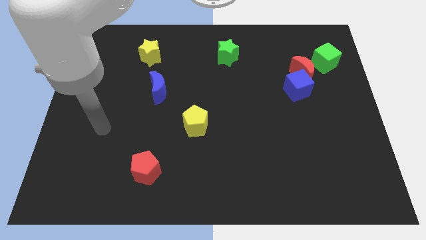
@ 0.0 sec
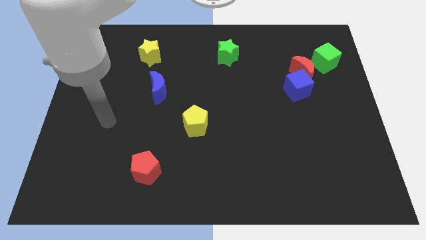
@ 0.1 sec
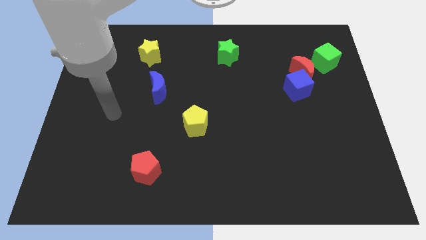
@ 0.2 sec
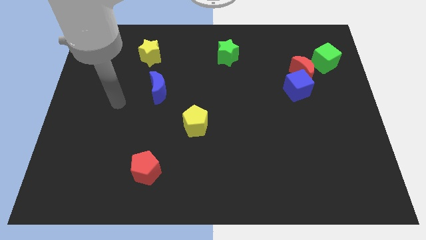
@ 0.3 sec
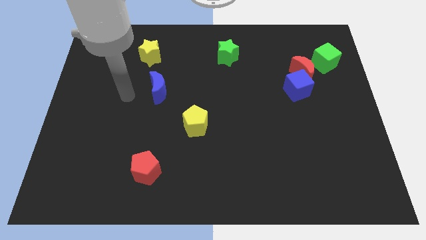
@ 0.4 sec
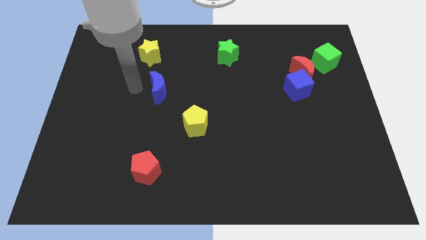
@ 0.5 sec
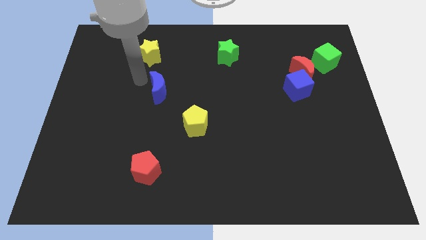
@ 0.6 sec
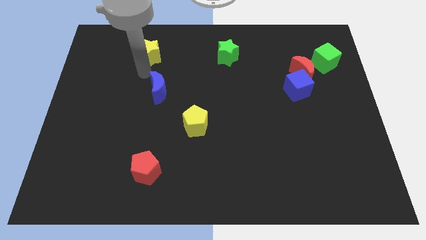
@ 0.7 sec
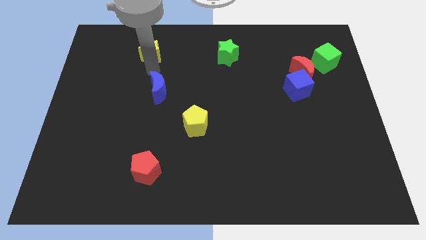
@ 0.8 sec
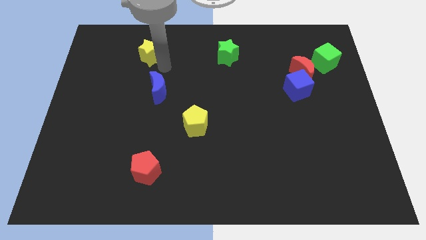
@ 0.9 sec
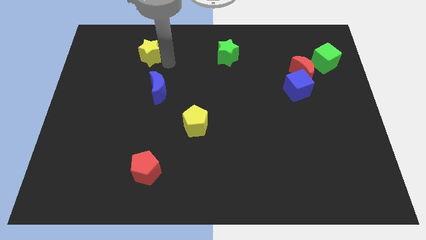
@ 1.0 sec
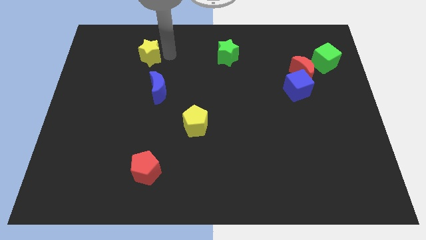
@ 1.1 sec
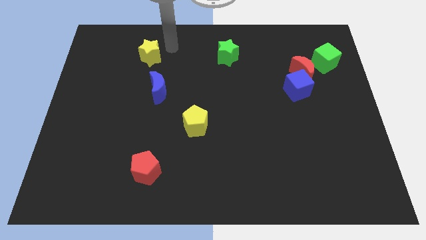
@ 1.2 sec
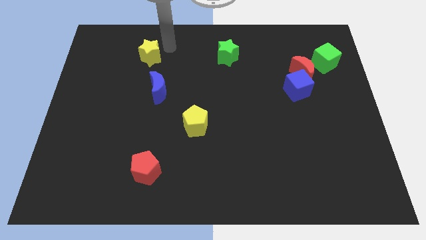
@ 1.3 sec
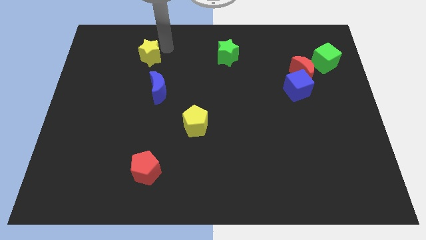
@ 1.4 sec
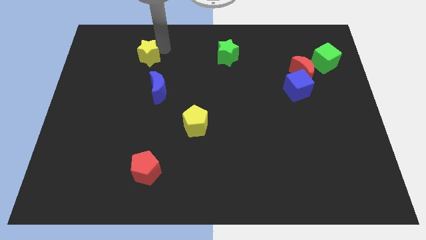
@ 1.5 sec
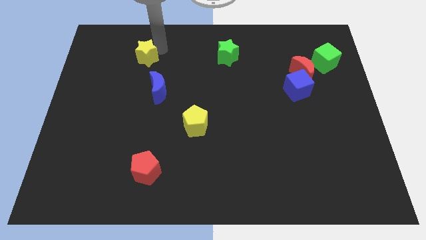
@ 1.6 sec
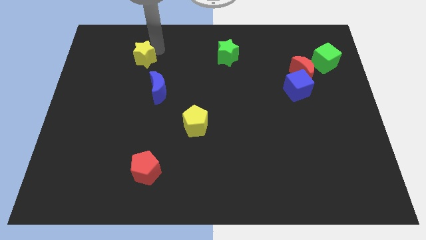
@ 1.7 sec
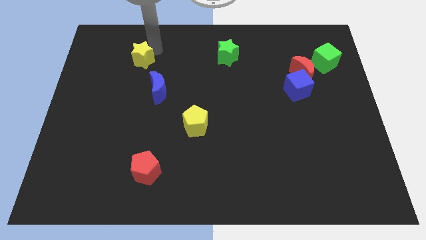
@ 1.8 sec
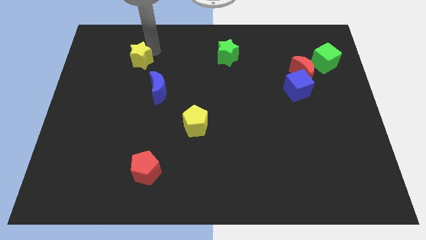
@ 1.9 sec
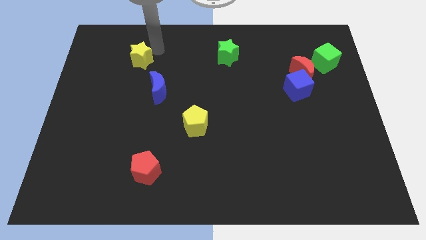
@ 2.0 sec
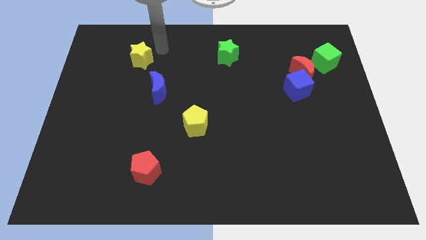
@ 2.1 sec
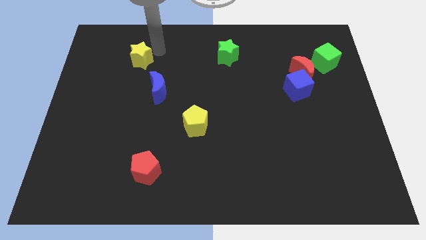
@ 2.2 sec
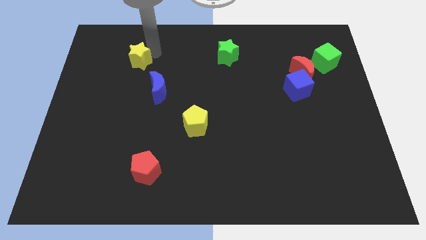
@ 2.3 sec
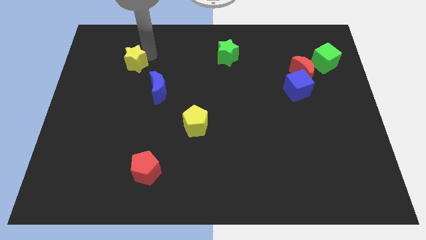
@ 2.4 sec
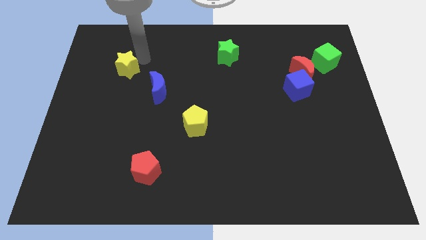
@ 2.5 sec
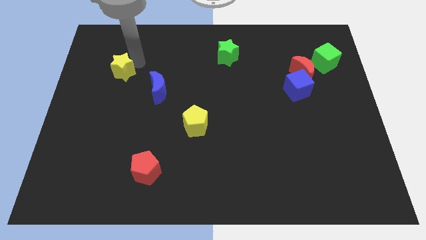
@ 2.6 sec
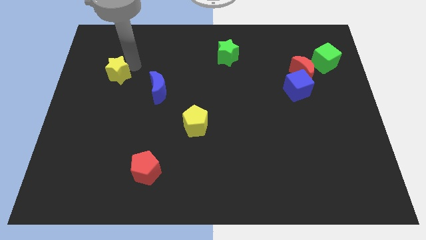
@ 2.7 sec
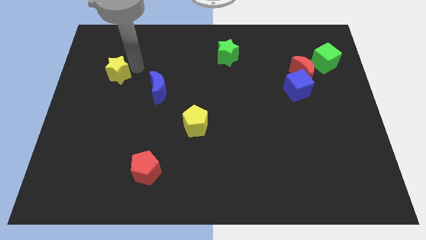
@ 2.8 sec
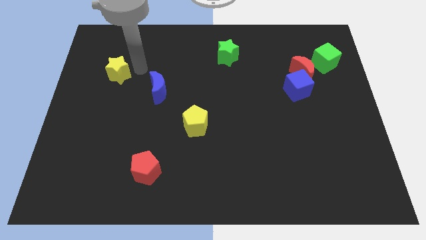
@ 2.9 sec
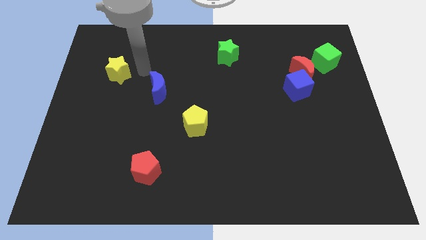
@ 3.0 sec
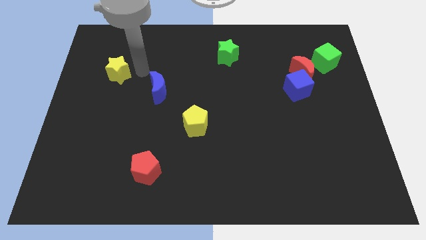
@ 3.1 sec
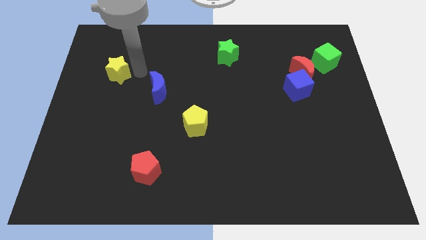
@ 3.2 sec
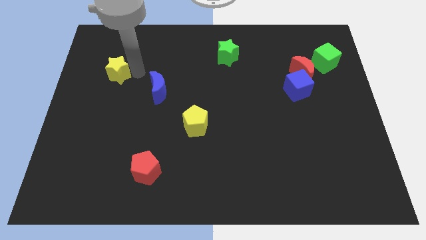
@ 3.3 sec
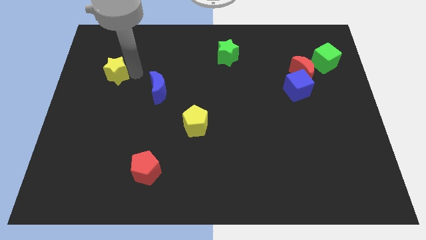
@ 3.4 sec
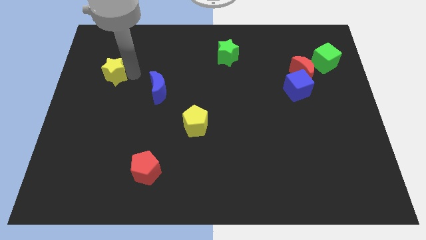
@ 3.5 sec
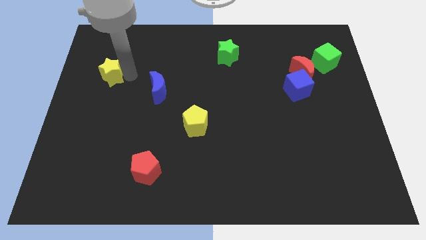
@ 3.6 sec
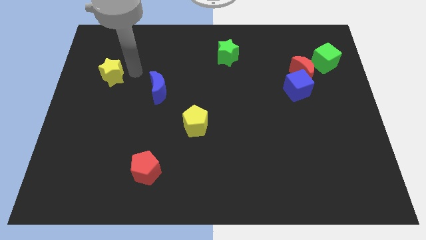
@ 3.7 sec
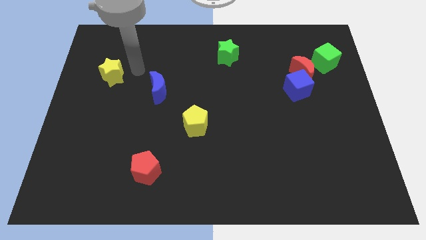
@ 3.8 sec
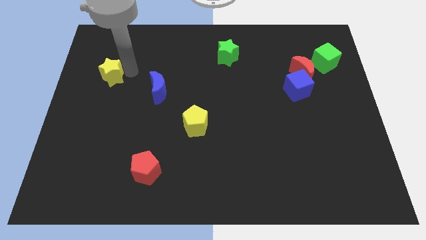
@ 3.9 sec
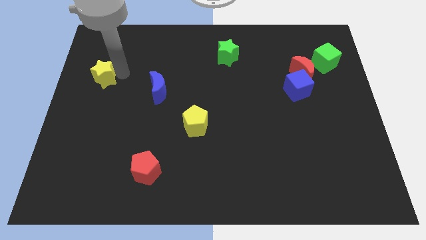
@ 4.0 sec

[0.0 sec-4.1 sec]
push the yellow star to the center left

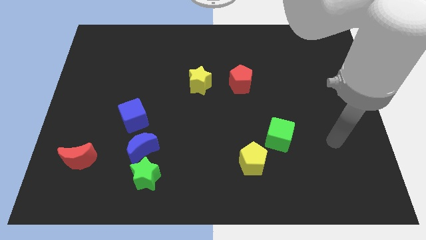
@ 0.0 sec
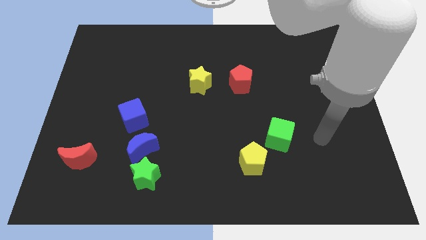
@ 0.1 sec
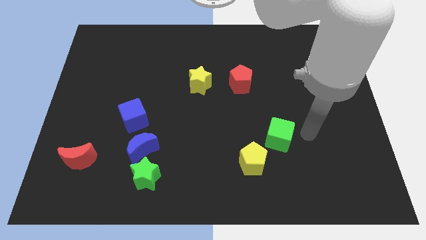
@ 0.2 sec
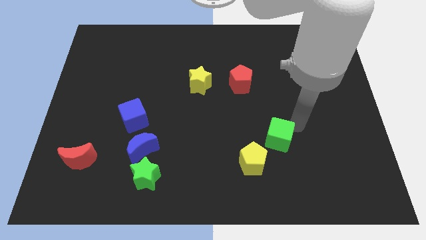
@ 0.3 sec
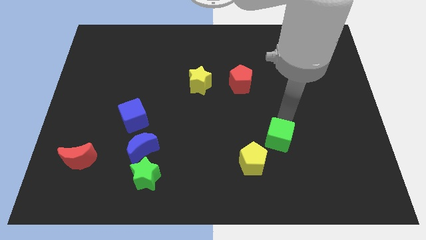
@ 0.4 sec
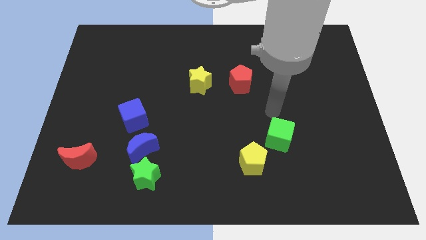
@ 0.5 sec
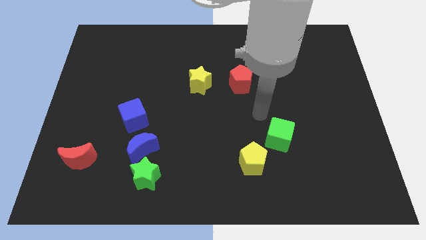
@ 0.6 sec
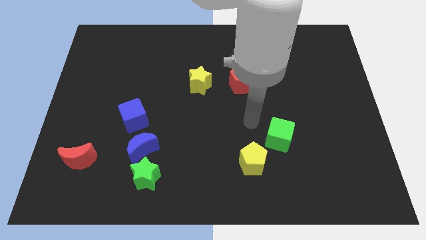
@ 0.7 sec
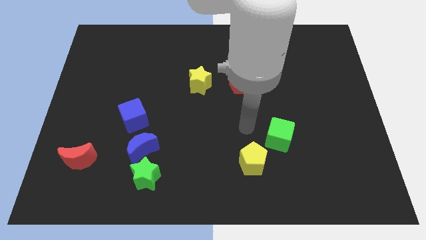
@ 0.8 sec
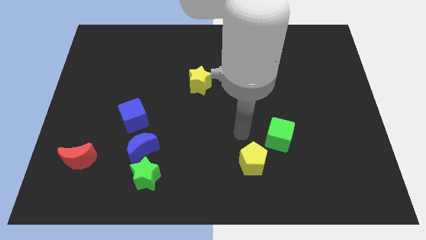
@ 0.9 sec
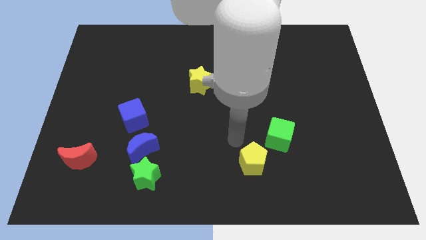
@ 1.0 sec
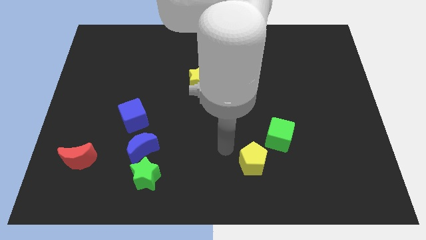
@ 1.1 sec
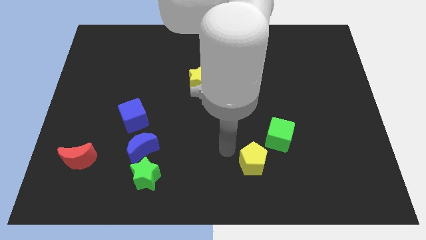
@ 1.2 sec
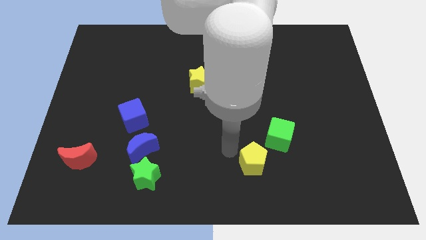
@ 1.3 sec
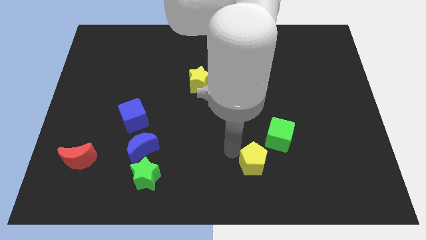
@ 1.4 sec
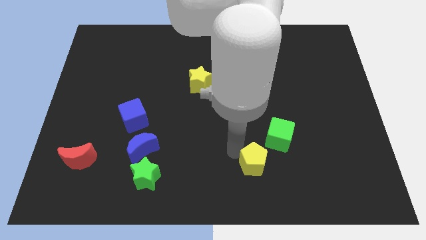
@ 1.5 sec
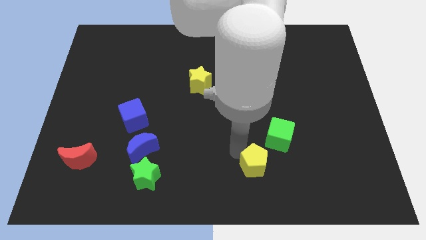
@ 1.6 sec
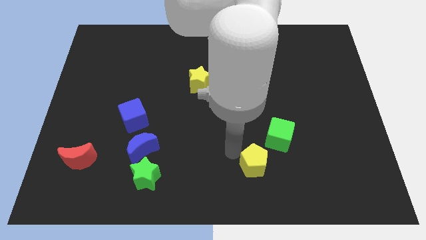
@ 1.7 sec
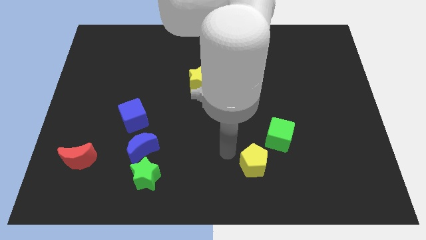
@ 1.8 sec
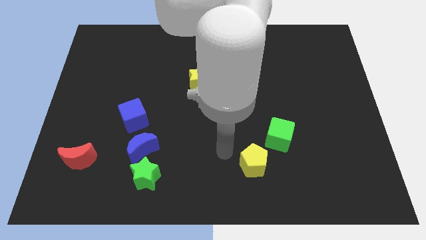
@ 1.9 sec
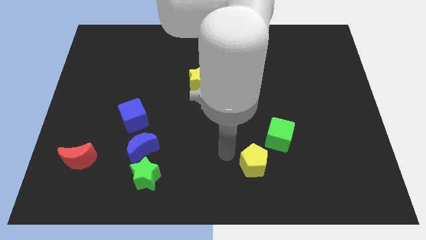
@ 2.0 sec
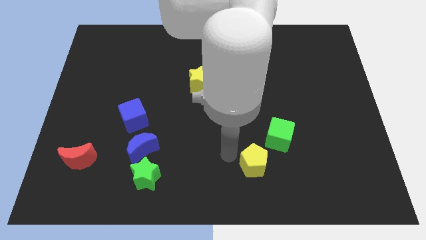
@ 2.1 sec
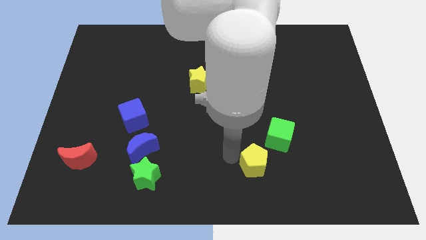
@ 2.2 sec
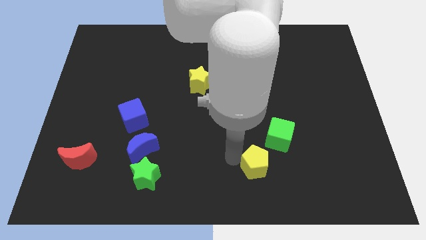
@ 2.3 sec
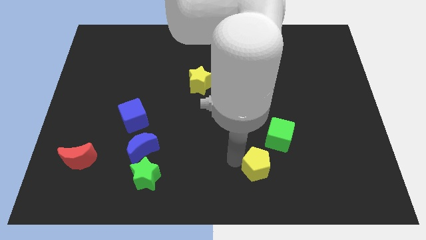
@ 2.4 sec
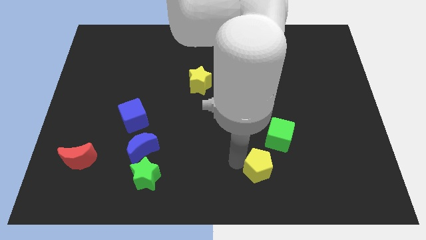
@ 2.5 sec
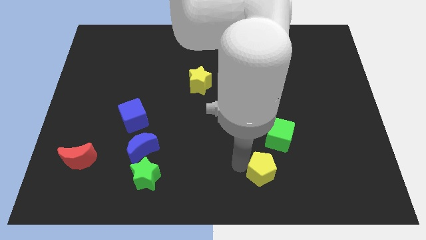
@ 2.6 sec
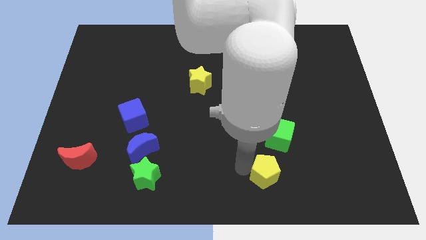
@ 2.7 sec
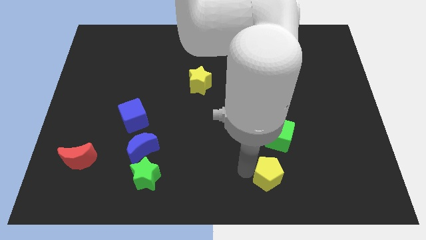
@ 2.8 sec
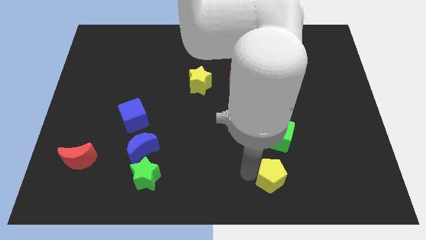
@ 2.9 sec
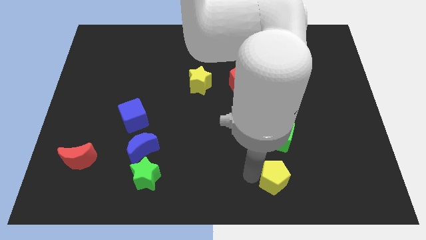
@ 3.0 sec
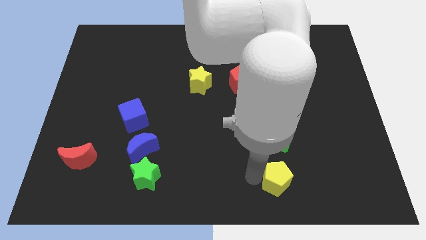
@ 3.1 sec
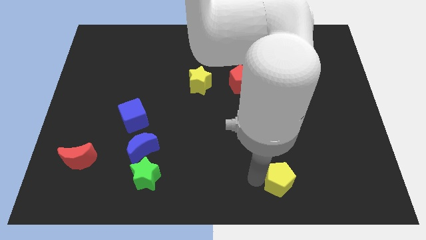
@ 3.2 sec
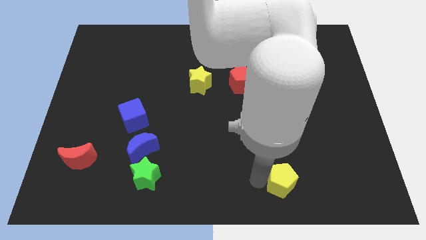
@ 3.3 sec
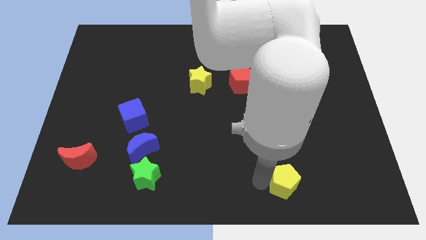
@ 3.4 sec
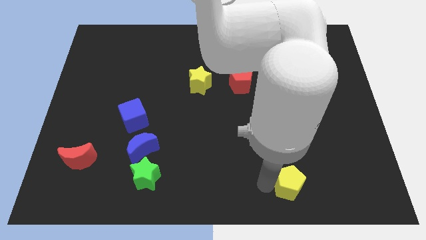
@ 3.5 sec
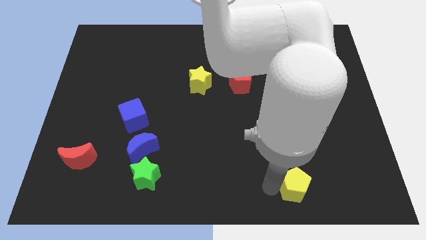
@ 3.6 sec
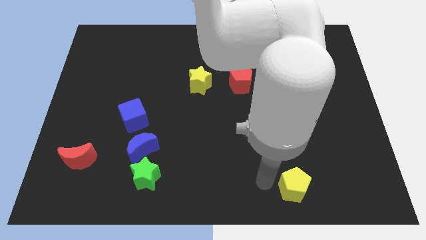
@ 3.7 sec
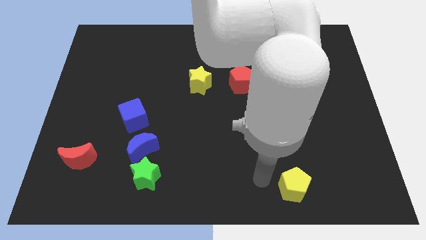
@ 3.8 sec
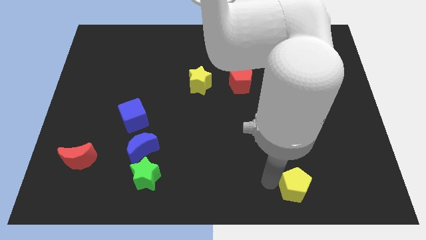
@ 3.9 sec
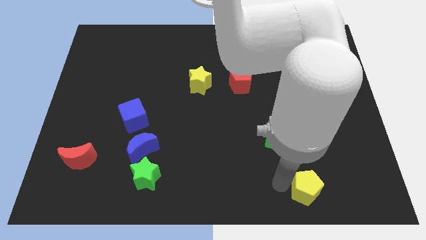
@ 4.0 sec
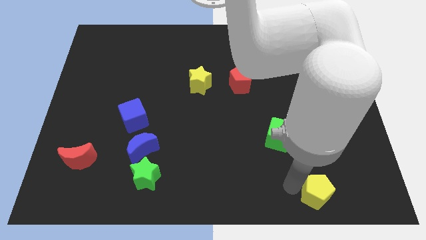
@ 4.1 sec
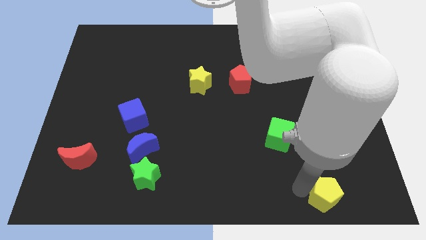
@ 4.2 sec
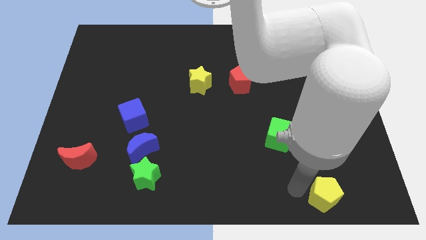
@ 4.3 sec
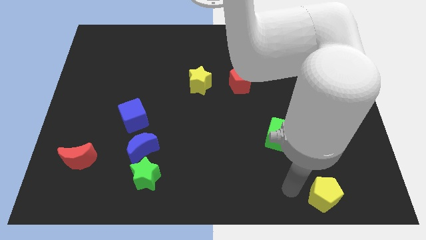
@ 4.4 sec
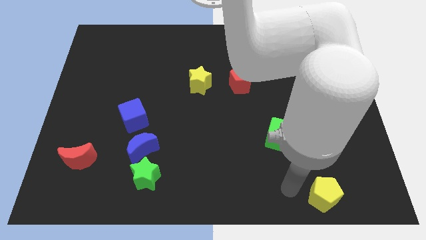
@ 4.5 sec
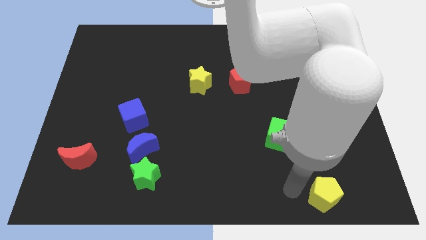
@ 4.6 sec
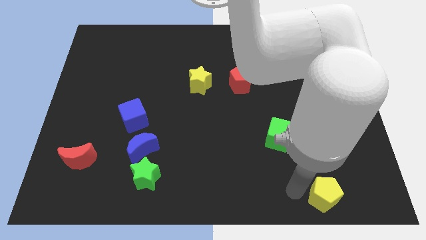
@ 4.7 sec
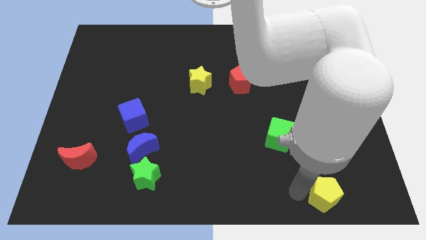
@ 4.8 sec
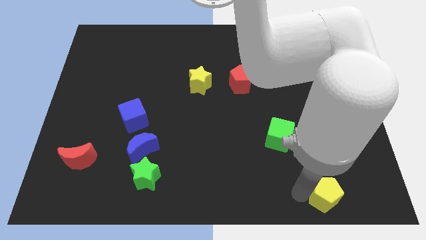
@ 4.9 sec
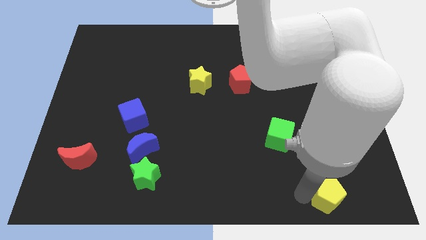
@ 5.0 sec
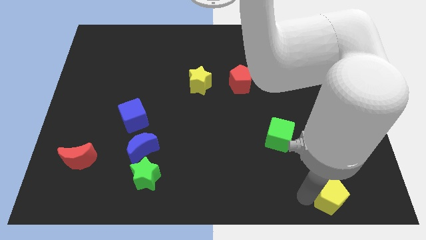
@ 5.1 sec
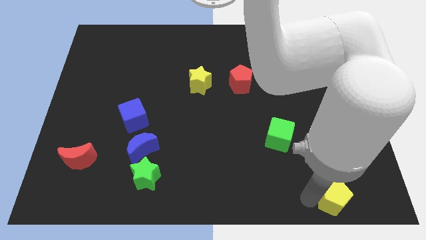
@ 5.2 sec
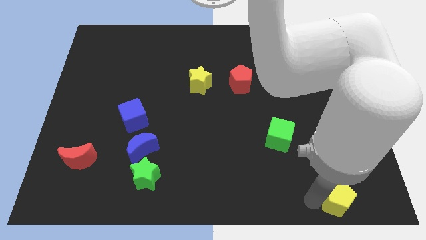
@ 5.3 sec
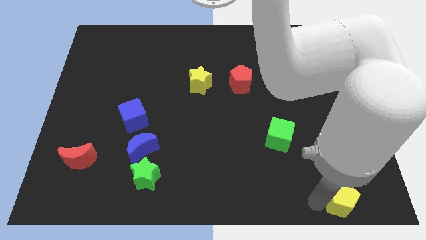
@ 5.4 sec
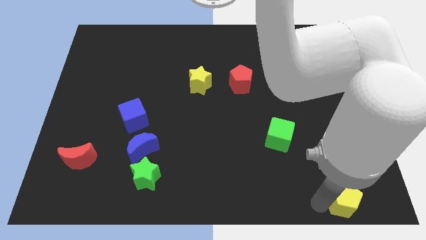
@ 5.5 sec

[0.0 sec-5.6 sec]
slide the yellow pentagon to the bottom right corner
